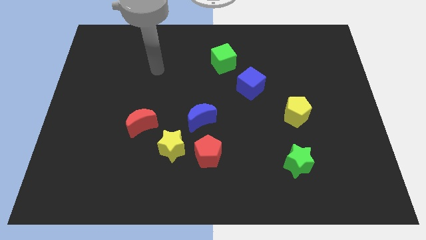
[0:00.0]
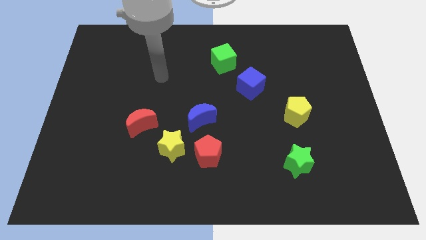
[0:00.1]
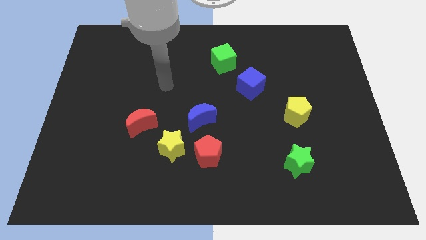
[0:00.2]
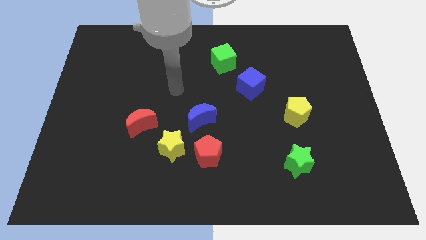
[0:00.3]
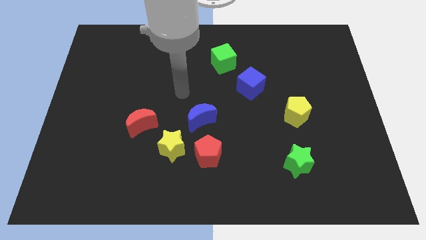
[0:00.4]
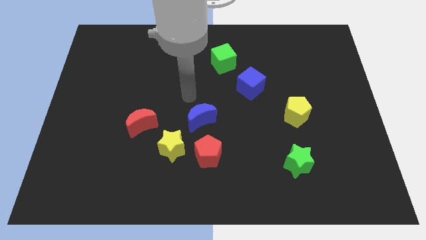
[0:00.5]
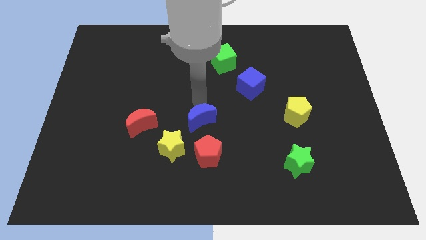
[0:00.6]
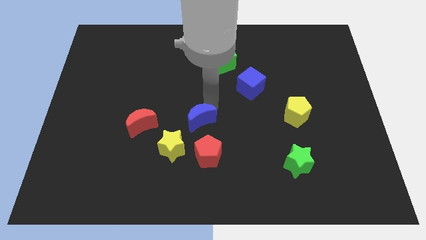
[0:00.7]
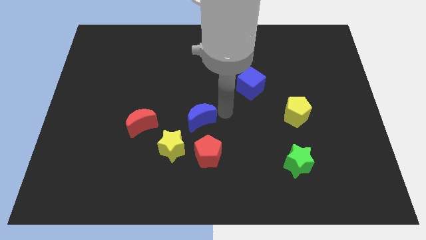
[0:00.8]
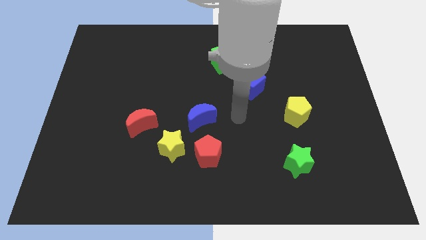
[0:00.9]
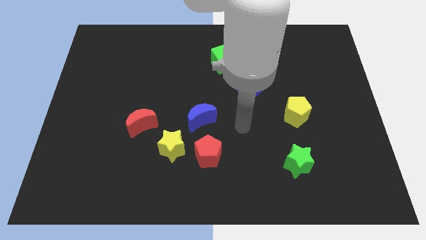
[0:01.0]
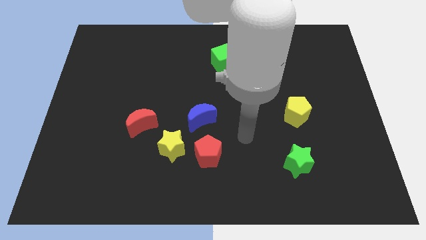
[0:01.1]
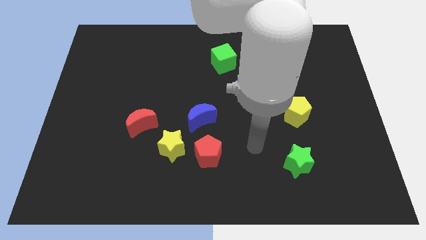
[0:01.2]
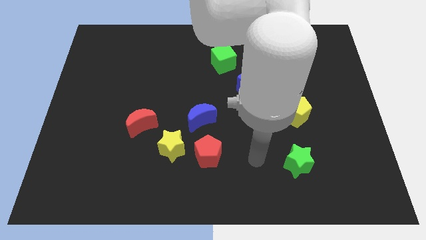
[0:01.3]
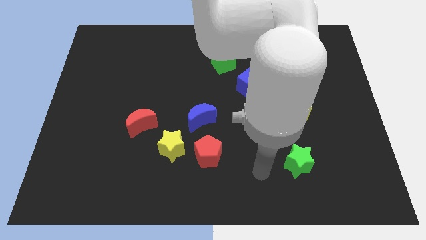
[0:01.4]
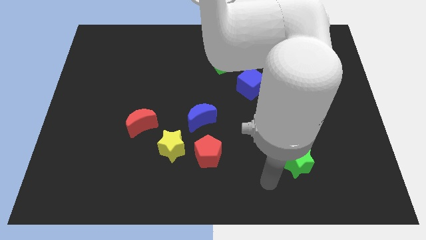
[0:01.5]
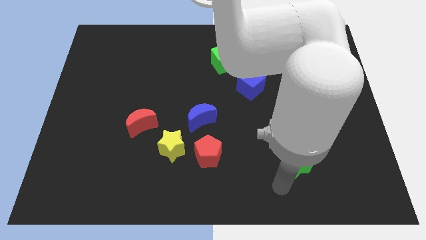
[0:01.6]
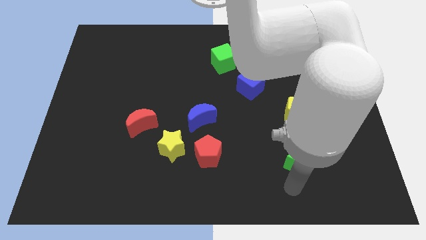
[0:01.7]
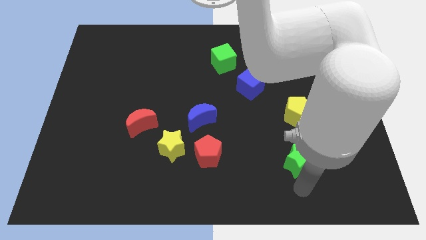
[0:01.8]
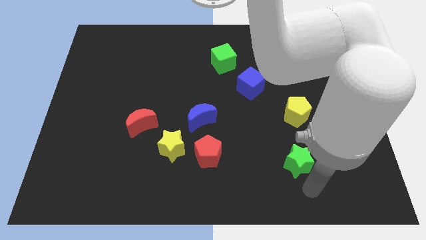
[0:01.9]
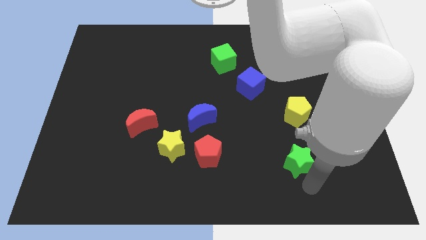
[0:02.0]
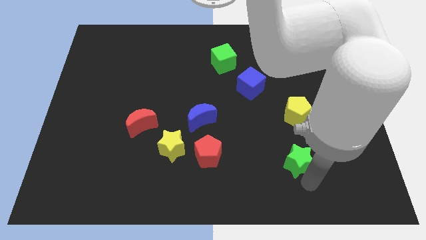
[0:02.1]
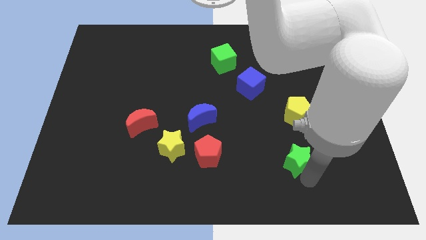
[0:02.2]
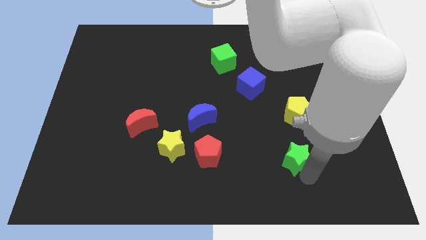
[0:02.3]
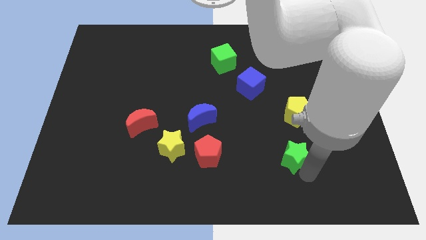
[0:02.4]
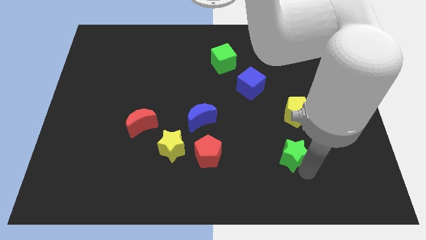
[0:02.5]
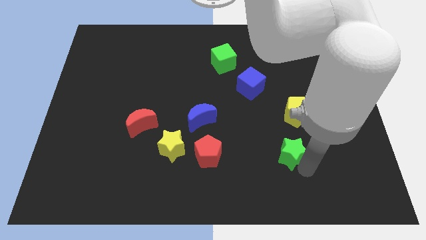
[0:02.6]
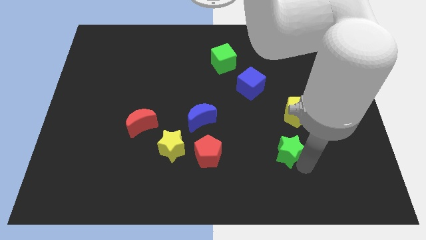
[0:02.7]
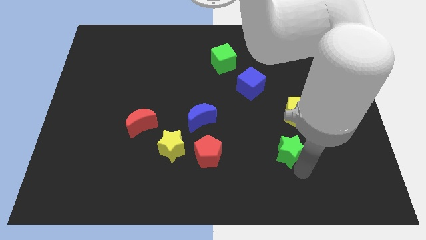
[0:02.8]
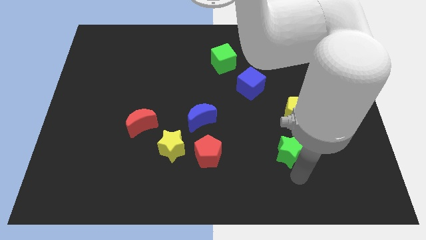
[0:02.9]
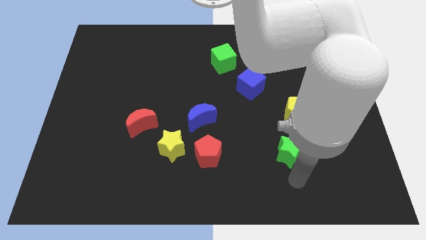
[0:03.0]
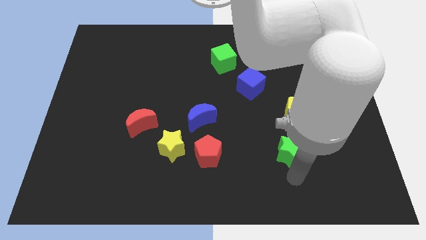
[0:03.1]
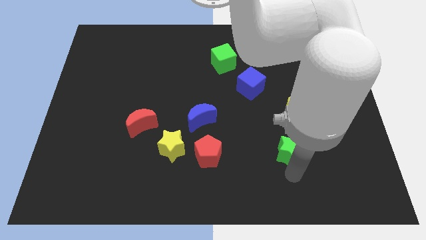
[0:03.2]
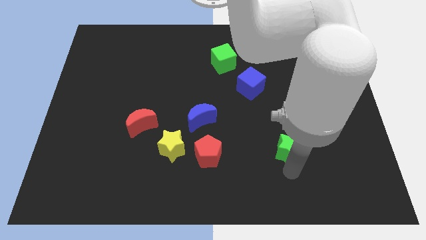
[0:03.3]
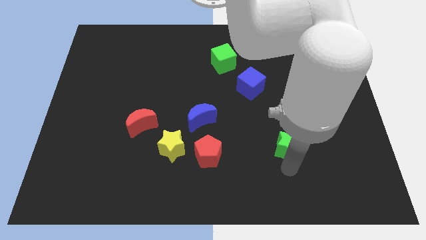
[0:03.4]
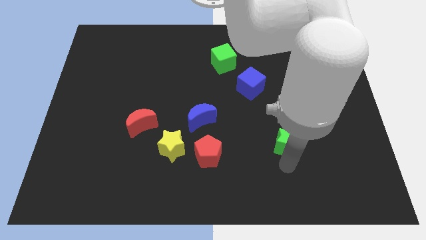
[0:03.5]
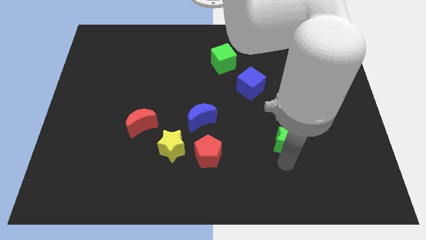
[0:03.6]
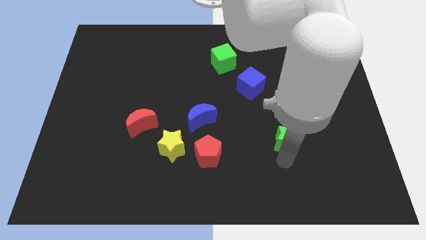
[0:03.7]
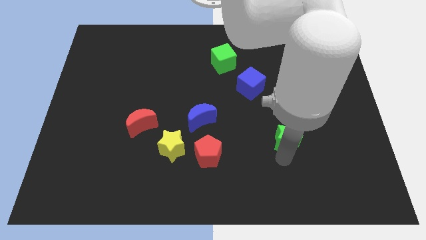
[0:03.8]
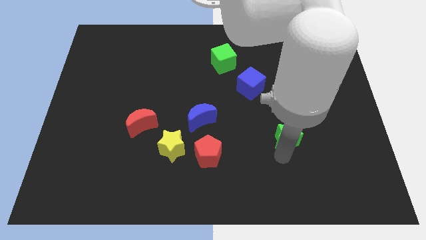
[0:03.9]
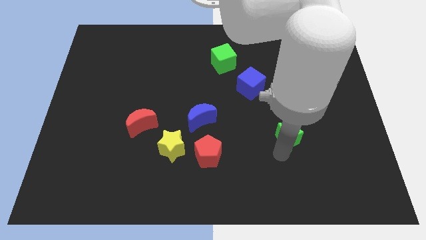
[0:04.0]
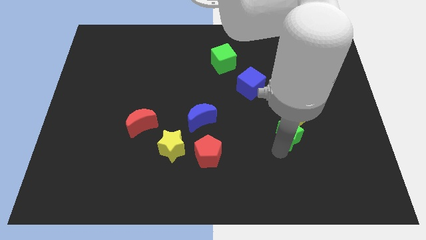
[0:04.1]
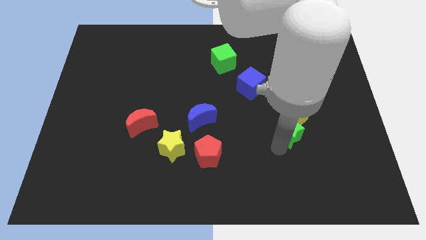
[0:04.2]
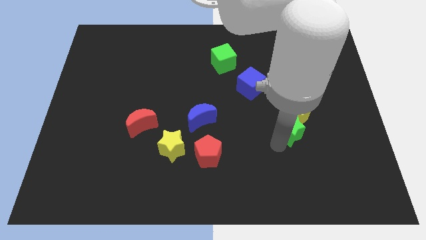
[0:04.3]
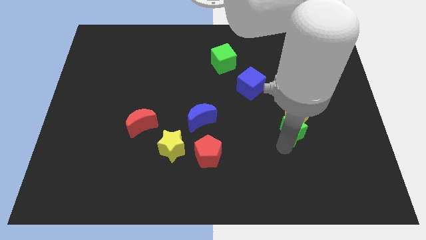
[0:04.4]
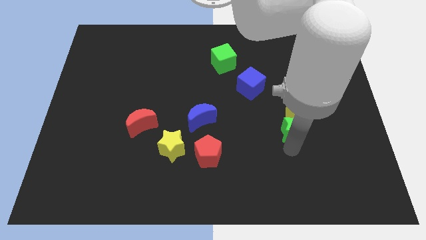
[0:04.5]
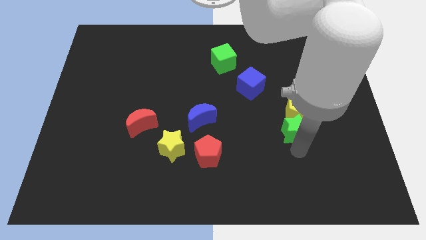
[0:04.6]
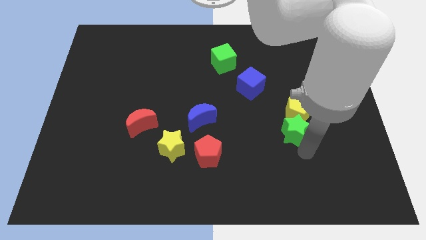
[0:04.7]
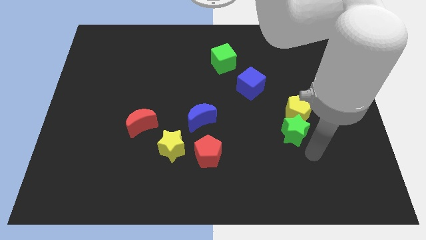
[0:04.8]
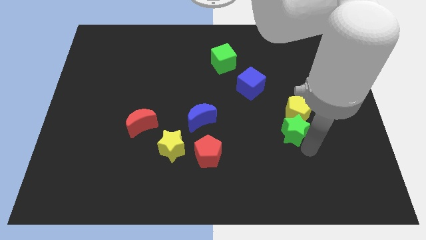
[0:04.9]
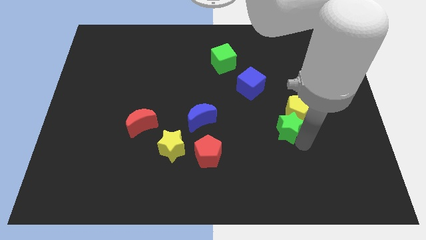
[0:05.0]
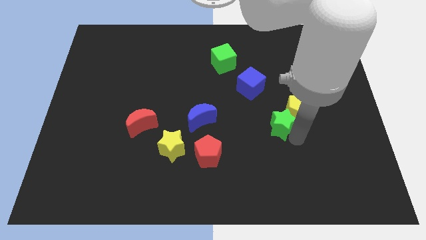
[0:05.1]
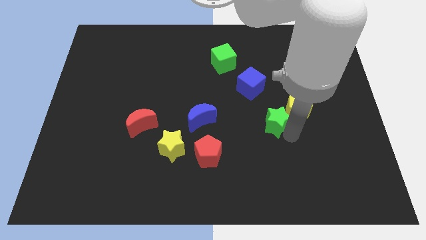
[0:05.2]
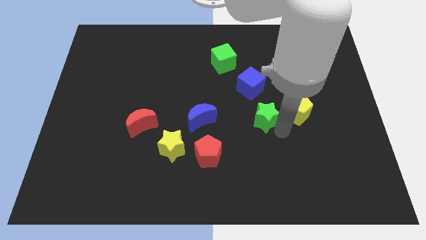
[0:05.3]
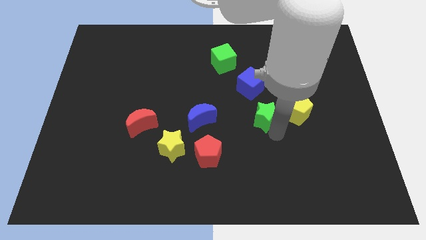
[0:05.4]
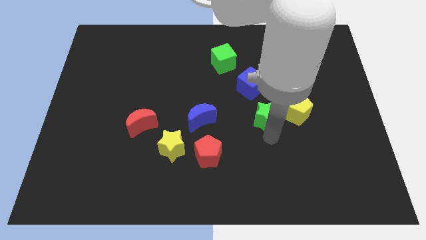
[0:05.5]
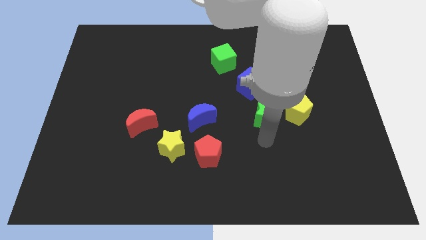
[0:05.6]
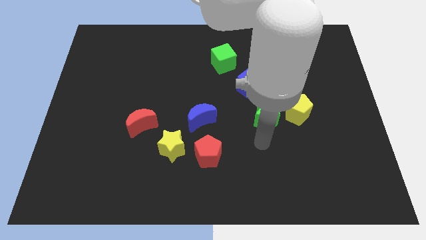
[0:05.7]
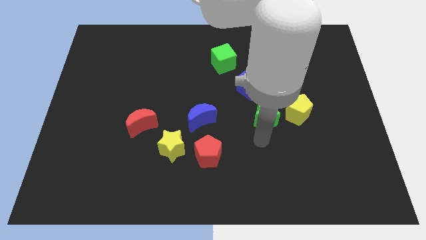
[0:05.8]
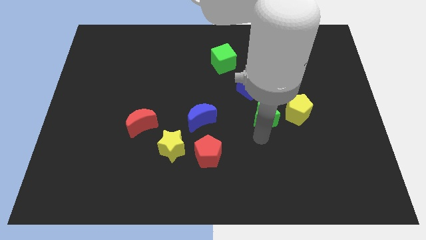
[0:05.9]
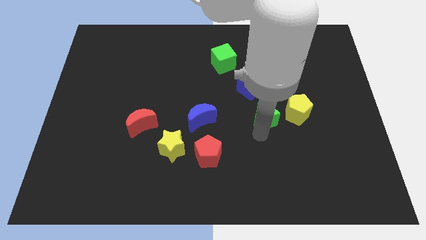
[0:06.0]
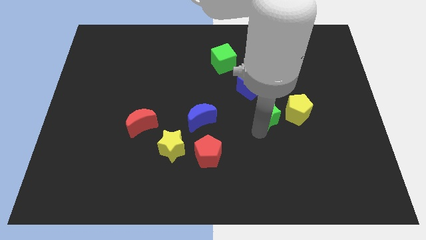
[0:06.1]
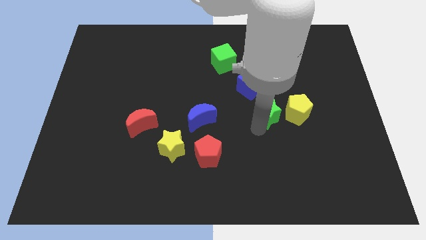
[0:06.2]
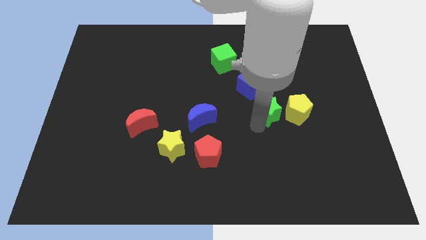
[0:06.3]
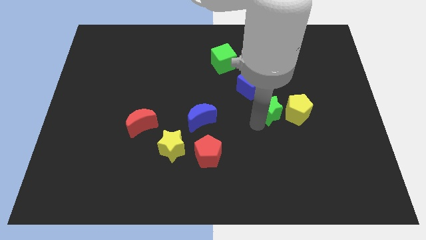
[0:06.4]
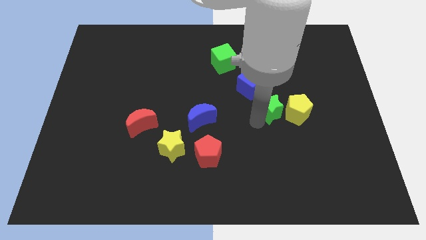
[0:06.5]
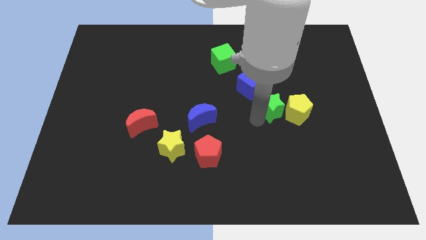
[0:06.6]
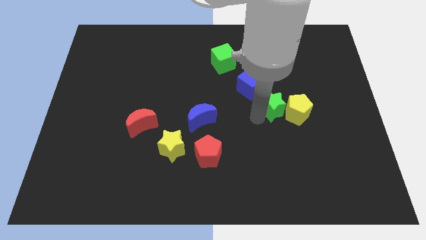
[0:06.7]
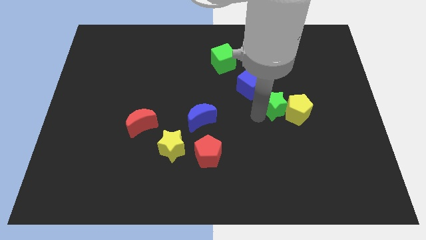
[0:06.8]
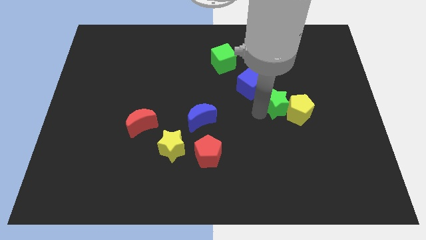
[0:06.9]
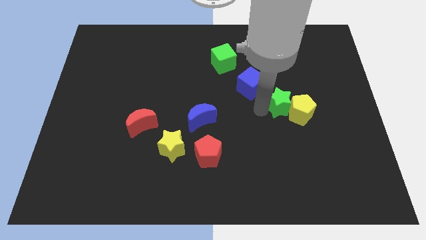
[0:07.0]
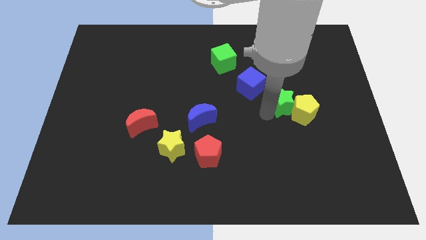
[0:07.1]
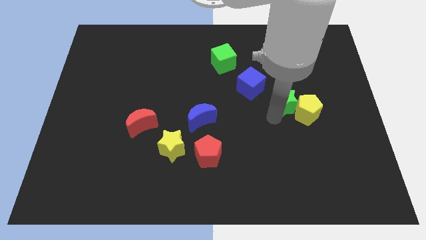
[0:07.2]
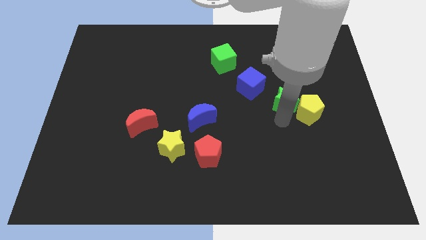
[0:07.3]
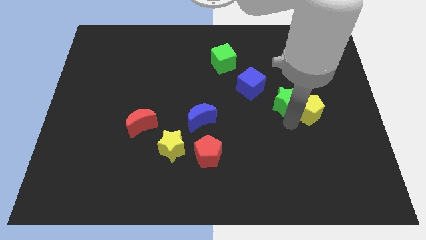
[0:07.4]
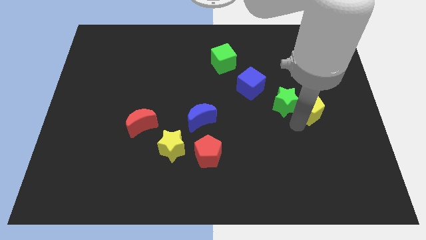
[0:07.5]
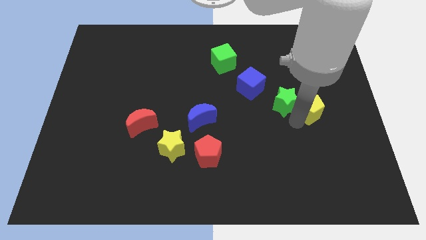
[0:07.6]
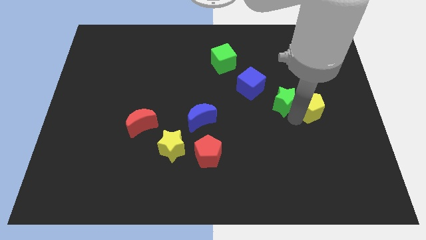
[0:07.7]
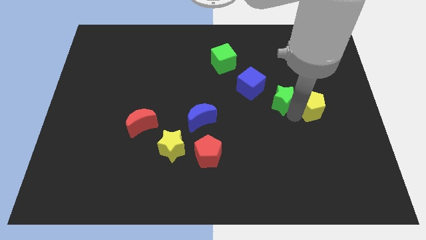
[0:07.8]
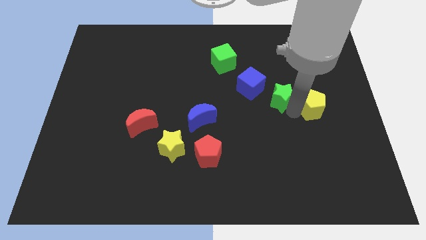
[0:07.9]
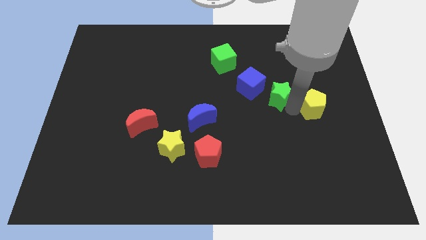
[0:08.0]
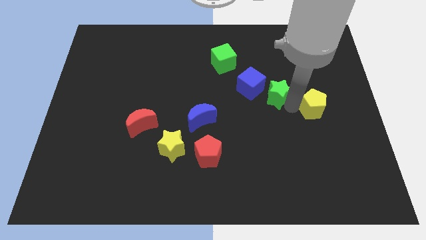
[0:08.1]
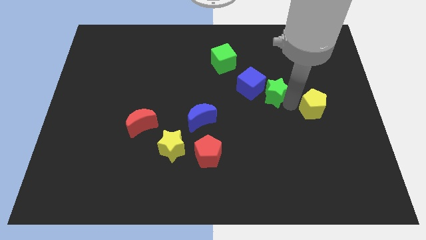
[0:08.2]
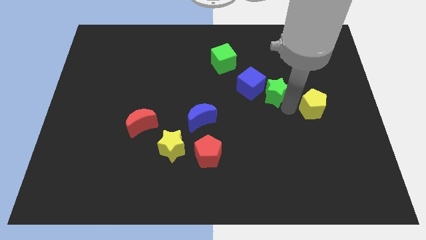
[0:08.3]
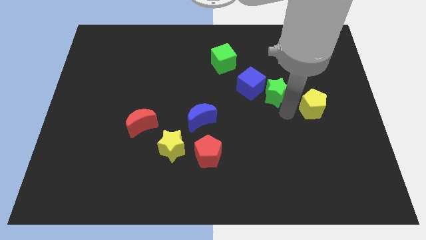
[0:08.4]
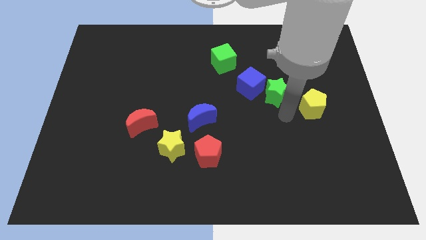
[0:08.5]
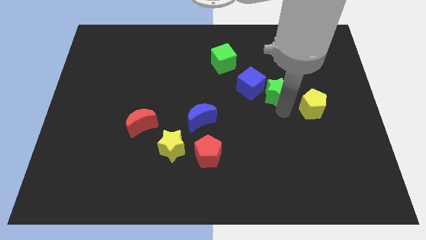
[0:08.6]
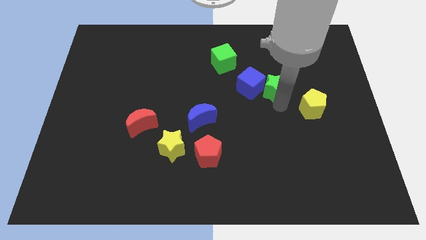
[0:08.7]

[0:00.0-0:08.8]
slide the green star up
